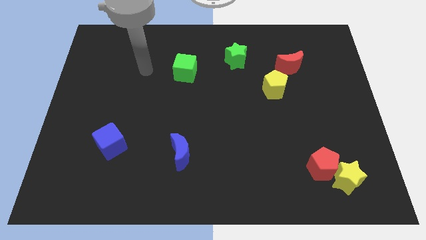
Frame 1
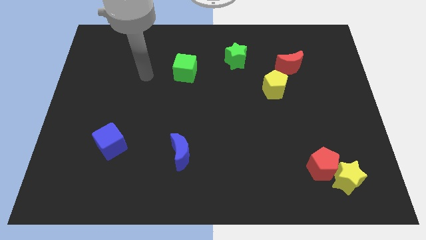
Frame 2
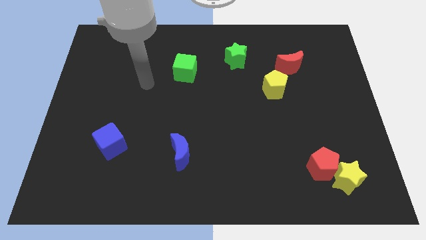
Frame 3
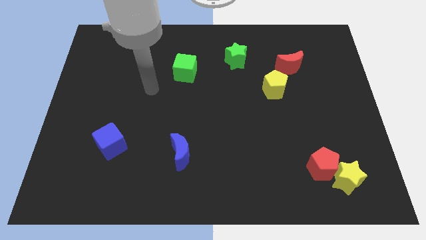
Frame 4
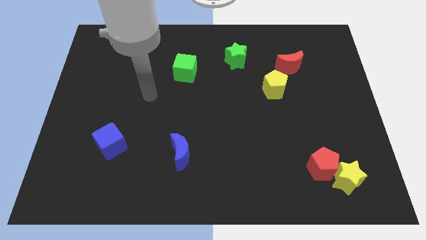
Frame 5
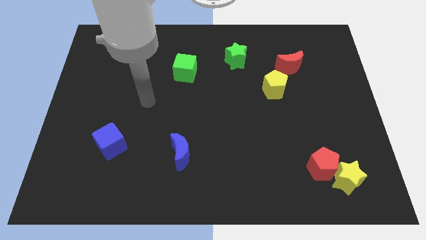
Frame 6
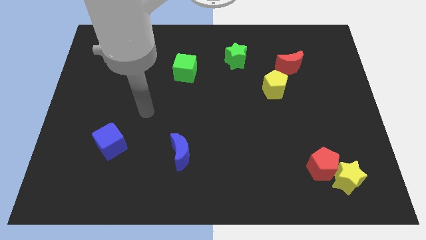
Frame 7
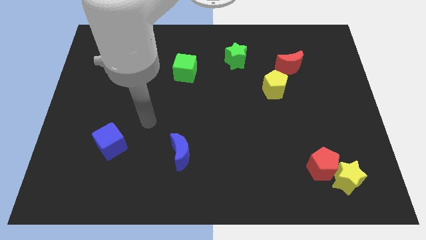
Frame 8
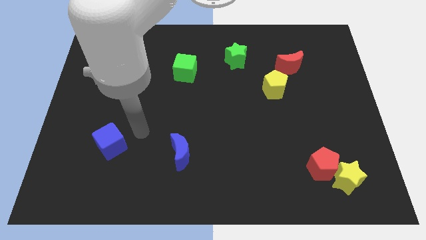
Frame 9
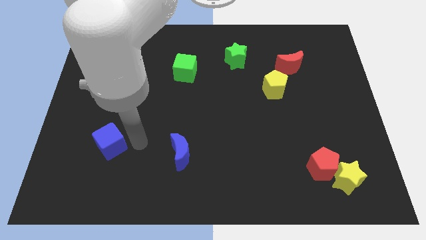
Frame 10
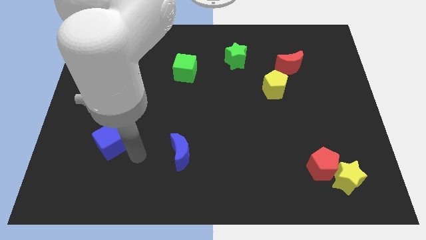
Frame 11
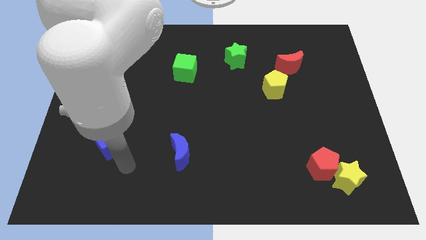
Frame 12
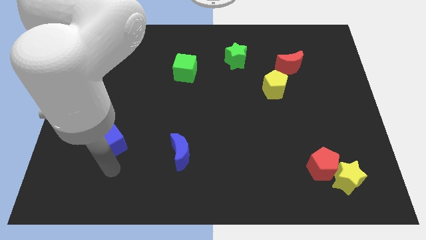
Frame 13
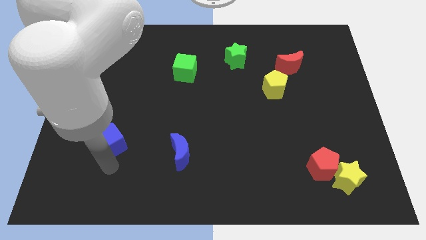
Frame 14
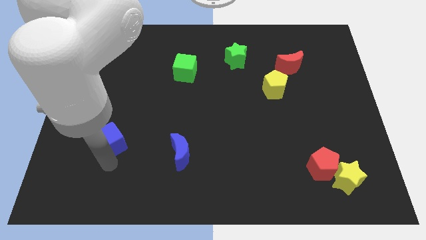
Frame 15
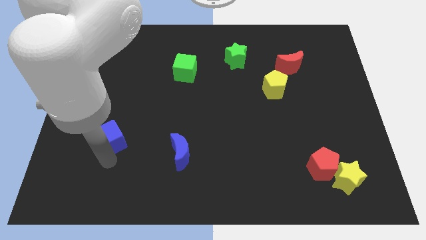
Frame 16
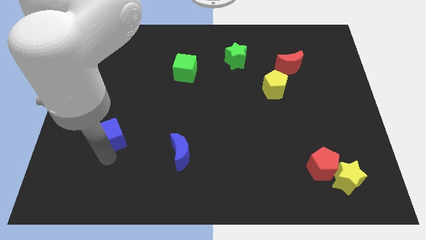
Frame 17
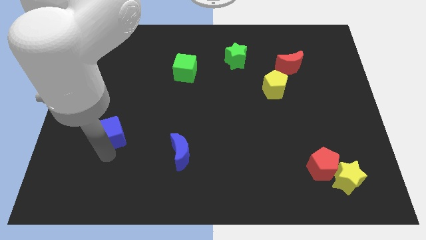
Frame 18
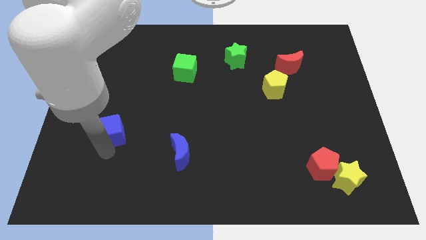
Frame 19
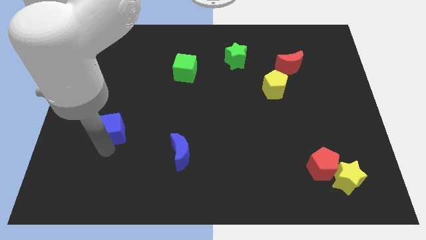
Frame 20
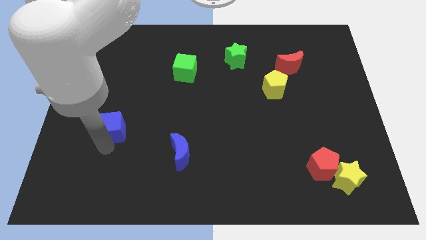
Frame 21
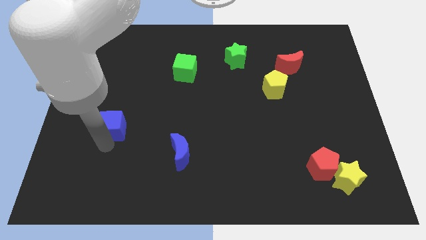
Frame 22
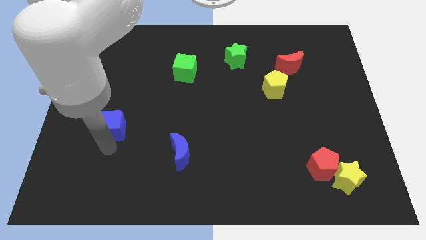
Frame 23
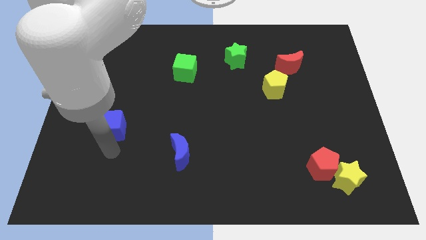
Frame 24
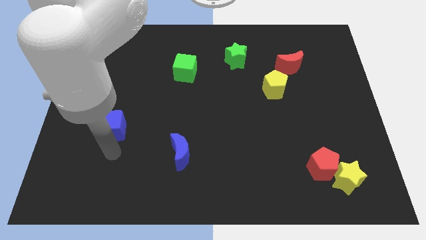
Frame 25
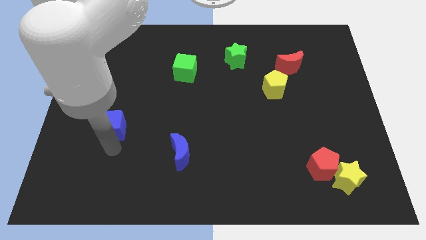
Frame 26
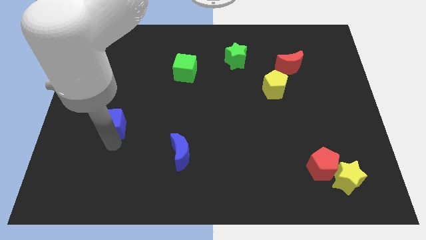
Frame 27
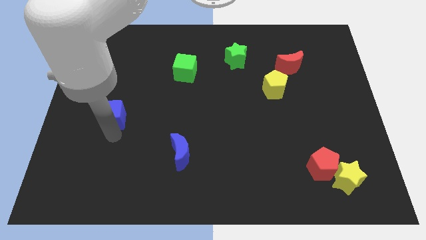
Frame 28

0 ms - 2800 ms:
push the blue cube upwards a little bit

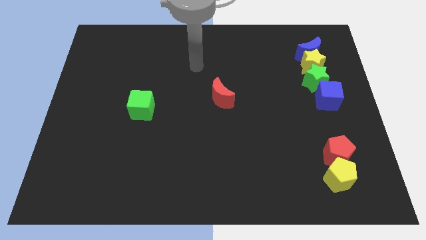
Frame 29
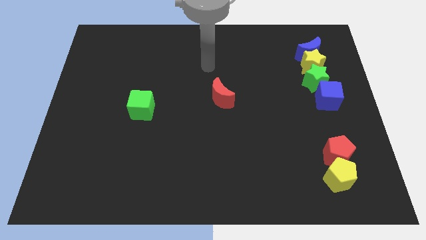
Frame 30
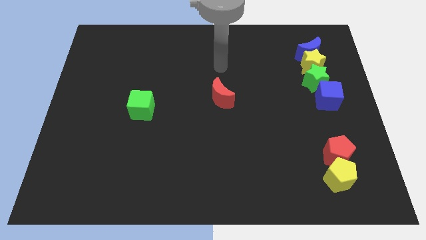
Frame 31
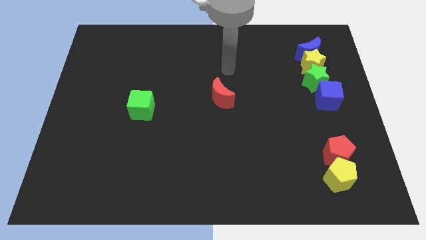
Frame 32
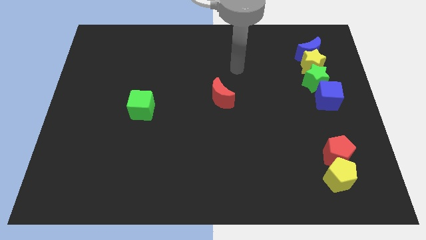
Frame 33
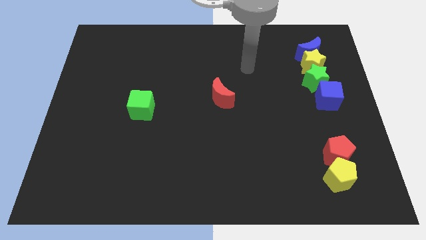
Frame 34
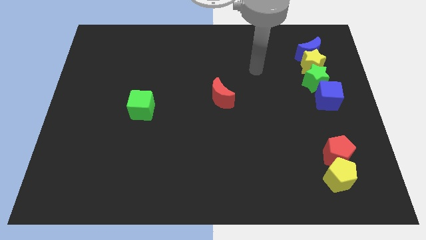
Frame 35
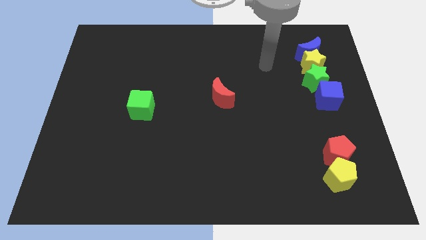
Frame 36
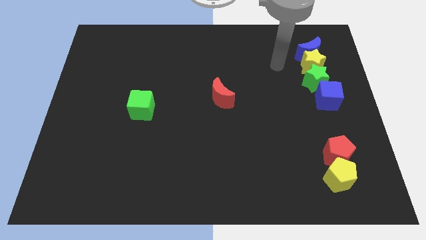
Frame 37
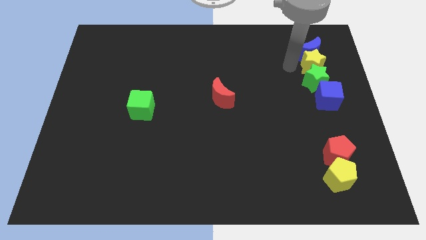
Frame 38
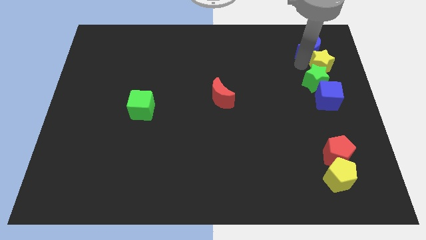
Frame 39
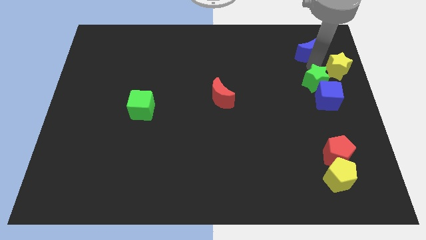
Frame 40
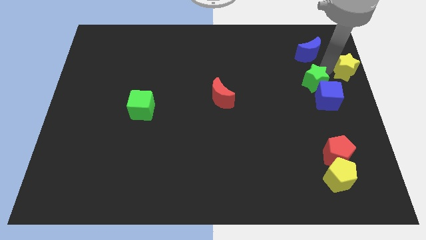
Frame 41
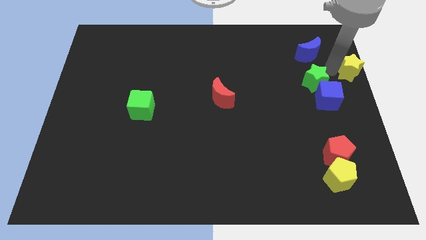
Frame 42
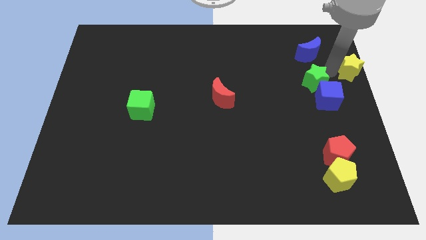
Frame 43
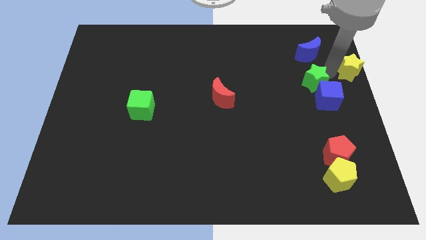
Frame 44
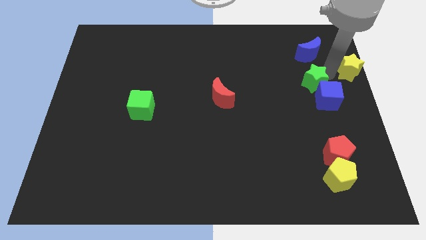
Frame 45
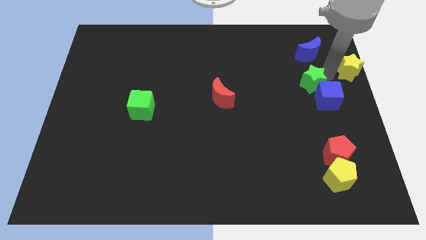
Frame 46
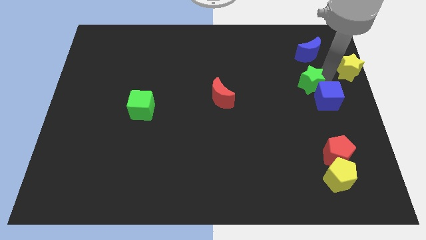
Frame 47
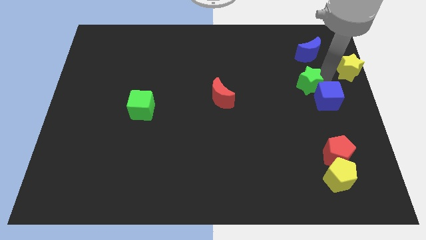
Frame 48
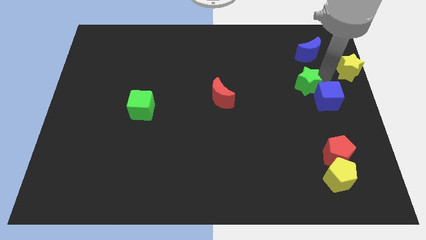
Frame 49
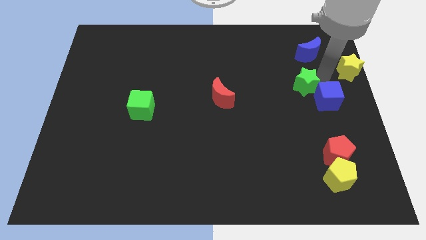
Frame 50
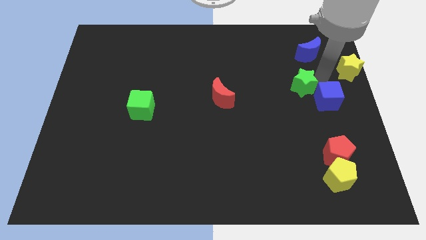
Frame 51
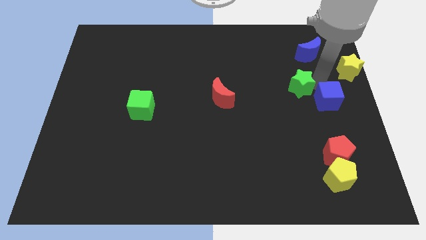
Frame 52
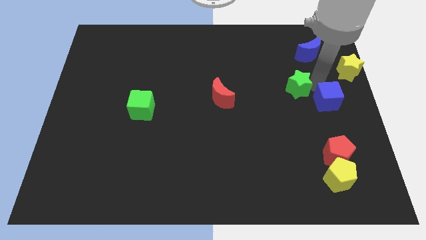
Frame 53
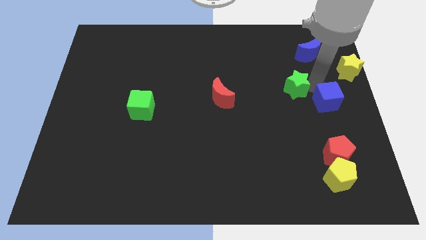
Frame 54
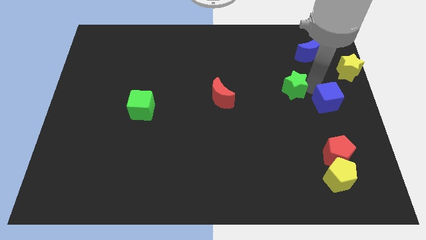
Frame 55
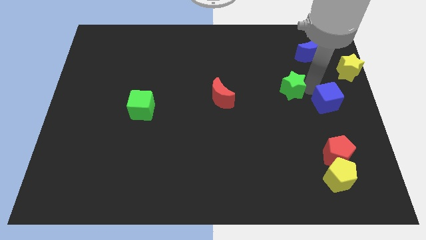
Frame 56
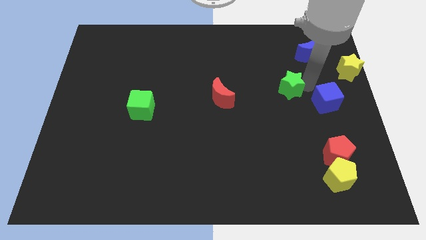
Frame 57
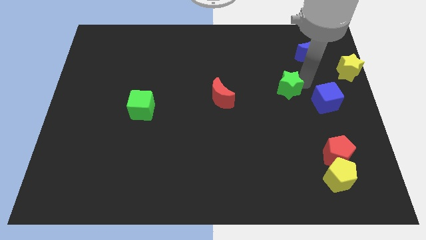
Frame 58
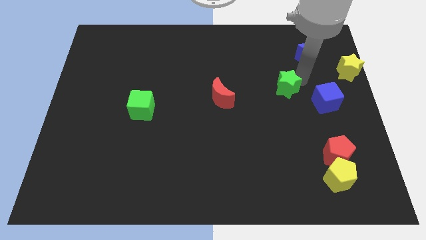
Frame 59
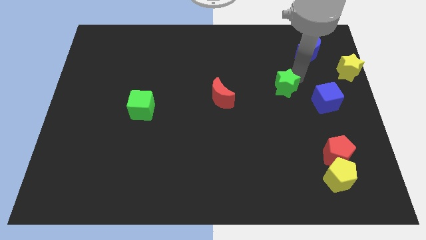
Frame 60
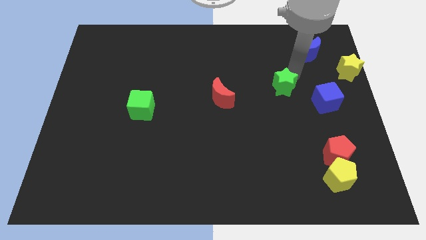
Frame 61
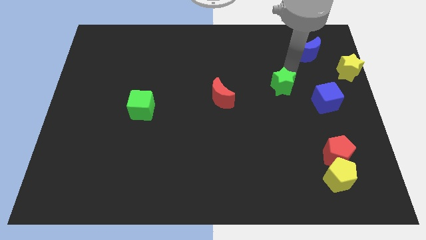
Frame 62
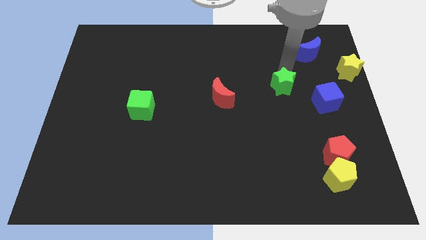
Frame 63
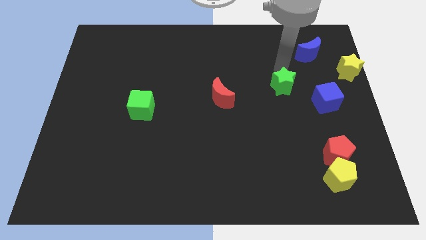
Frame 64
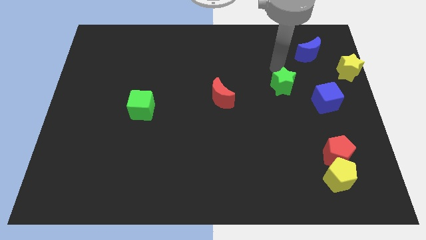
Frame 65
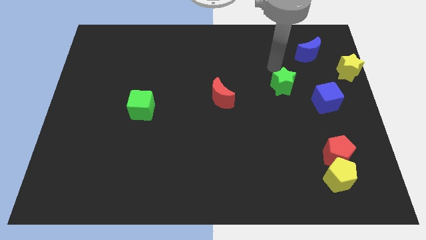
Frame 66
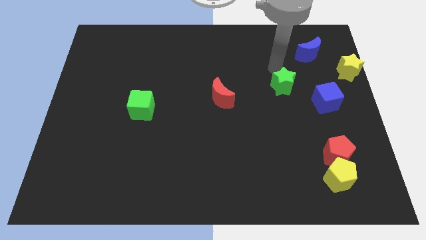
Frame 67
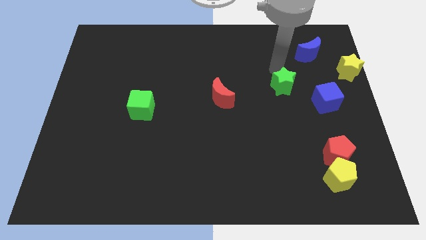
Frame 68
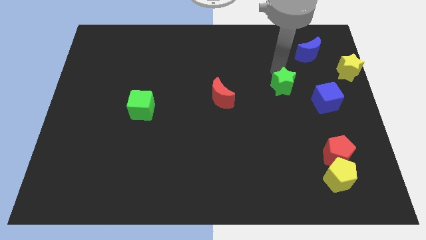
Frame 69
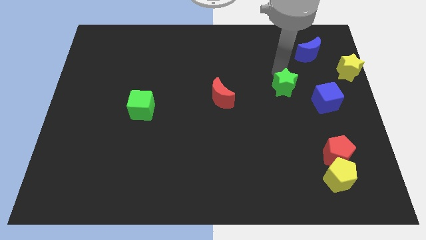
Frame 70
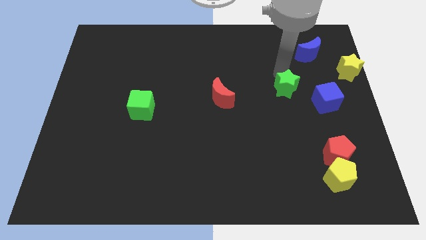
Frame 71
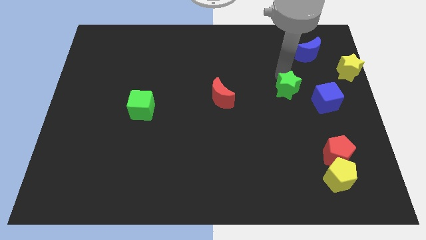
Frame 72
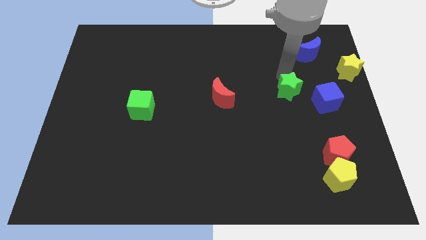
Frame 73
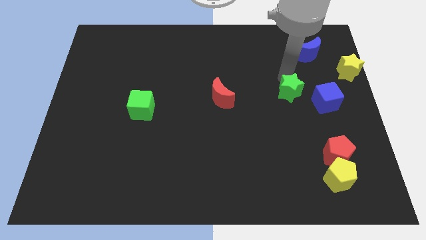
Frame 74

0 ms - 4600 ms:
slide the green star somewhat down and to the left diagonally

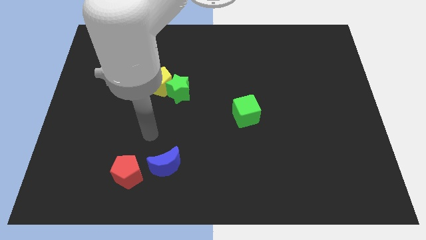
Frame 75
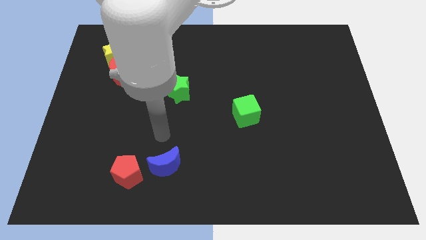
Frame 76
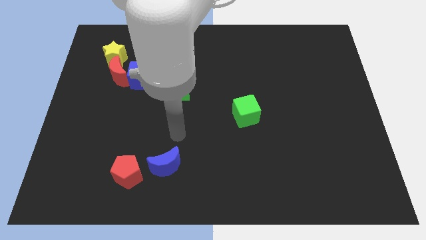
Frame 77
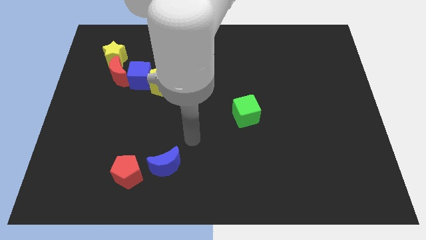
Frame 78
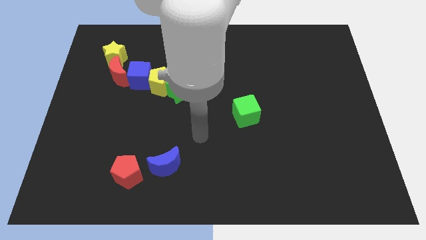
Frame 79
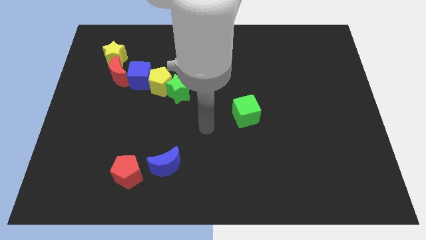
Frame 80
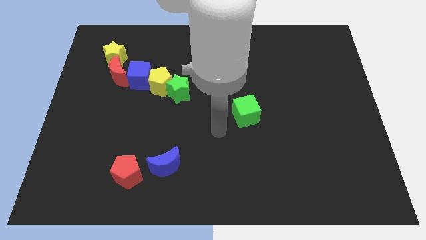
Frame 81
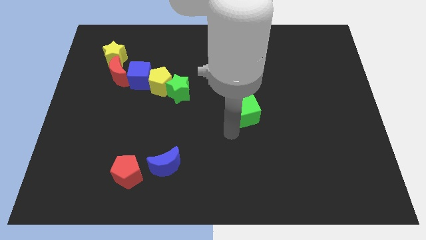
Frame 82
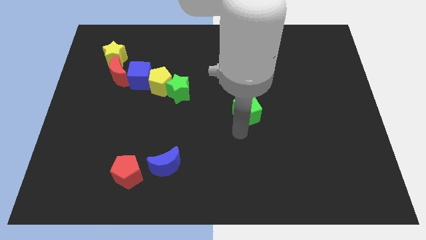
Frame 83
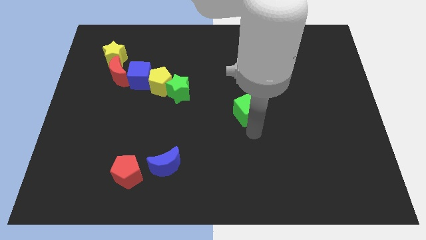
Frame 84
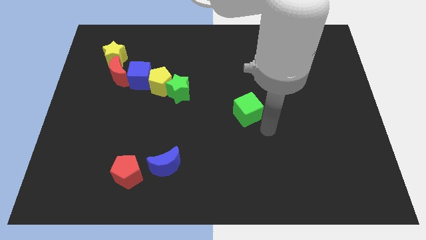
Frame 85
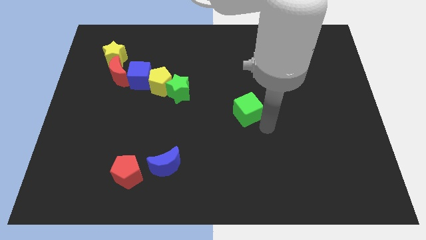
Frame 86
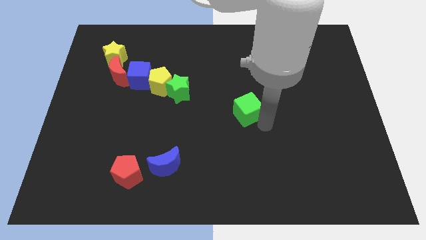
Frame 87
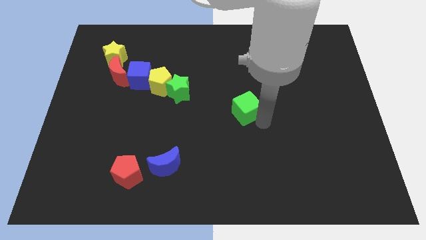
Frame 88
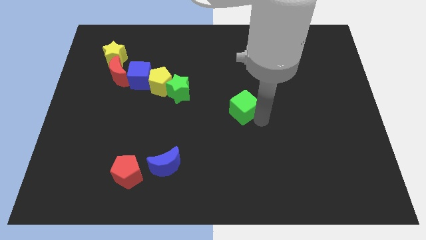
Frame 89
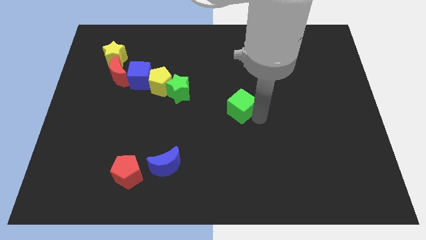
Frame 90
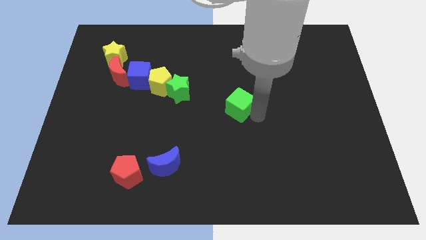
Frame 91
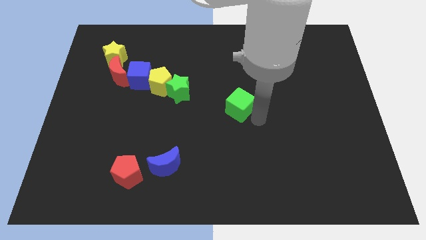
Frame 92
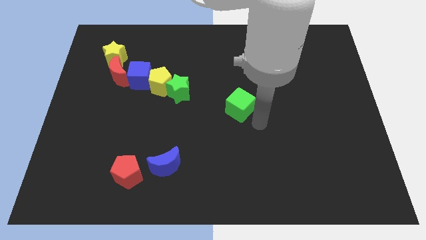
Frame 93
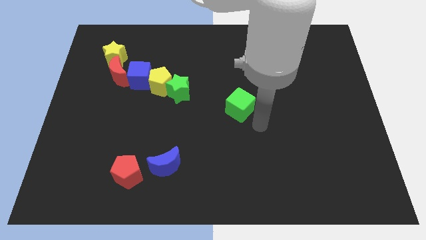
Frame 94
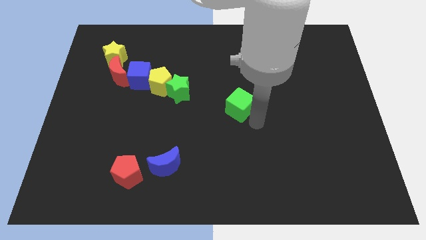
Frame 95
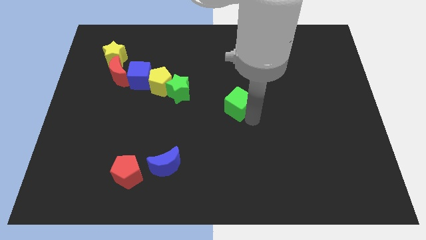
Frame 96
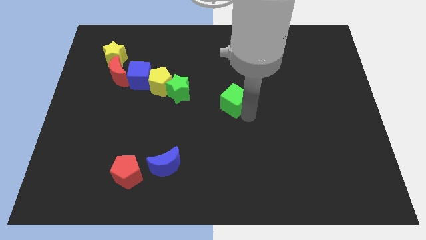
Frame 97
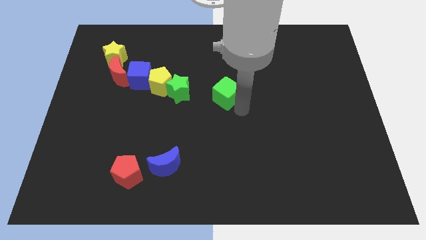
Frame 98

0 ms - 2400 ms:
move the green cube up and to the left diagonally a little
